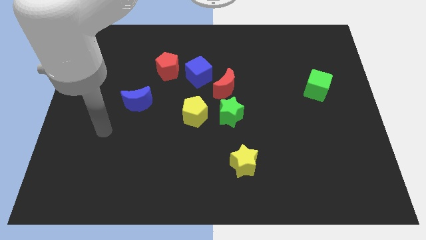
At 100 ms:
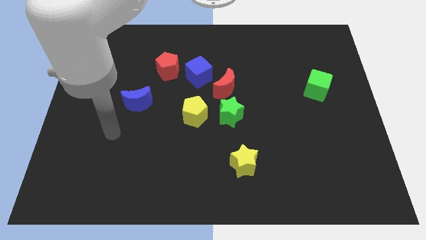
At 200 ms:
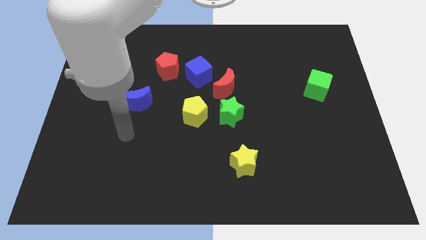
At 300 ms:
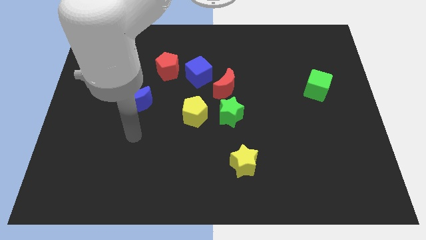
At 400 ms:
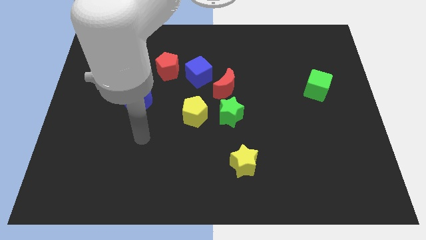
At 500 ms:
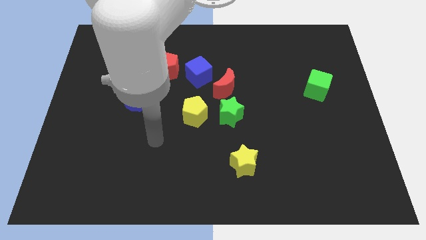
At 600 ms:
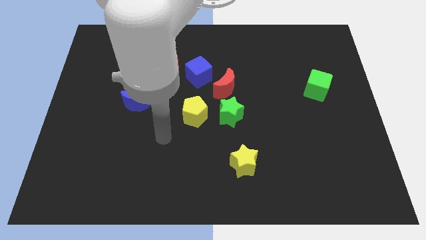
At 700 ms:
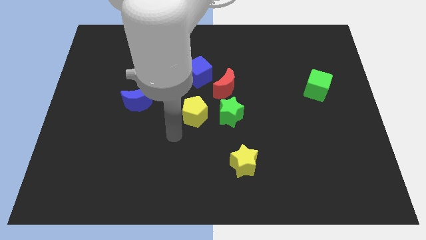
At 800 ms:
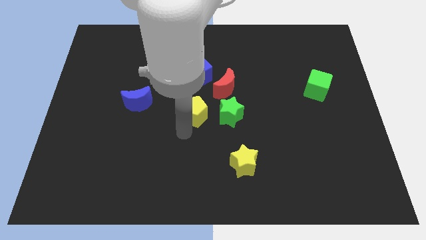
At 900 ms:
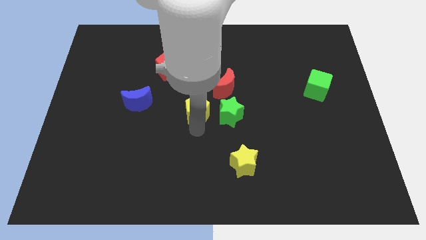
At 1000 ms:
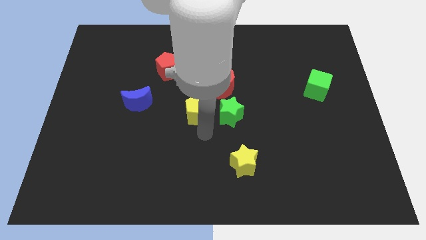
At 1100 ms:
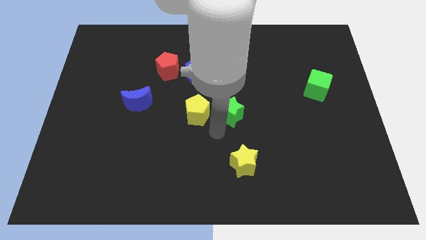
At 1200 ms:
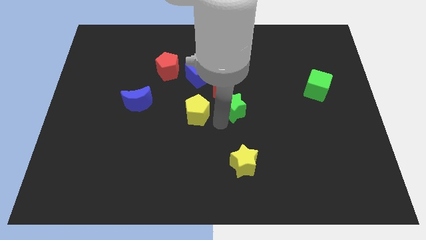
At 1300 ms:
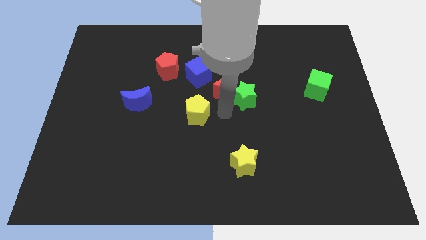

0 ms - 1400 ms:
move the yellow pentagon away from the green star

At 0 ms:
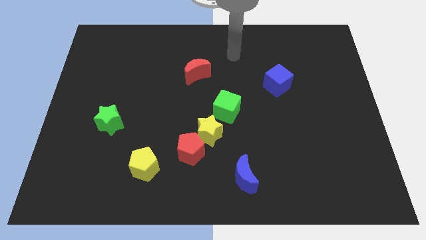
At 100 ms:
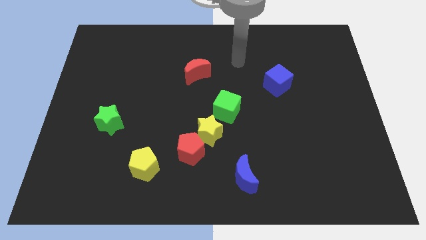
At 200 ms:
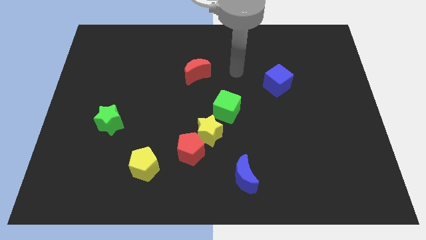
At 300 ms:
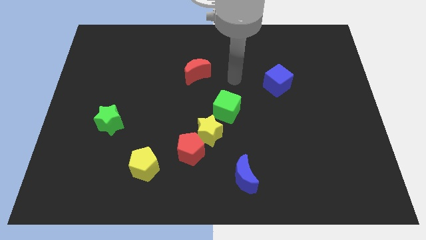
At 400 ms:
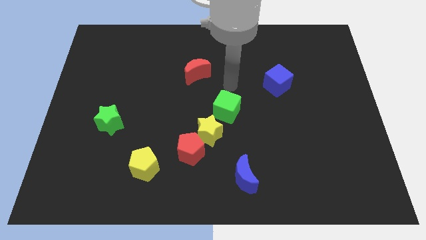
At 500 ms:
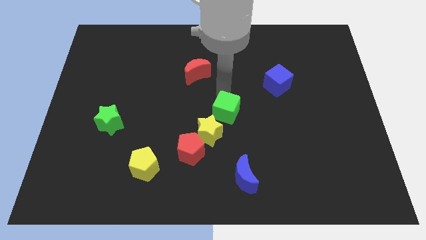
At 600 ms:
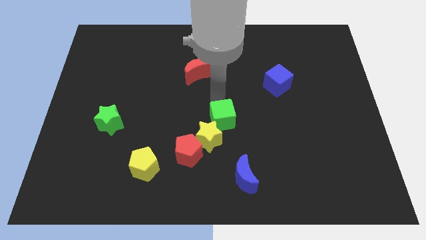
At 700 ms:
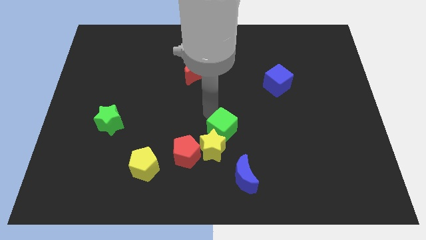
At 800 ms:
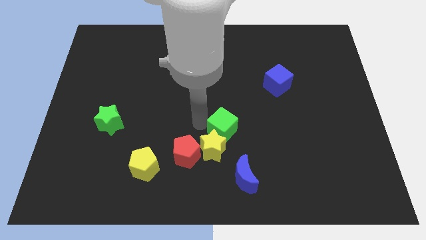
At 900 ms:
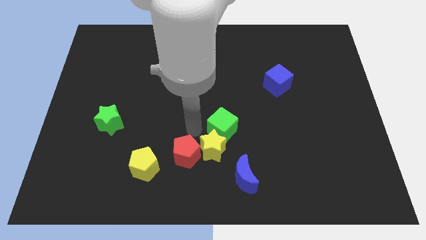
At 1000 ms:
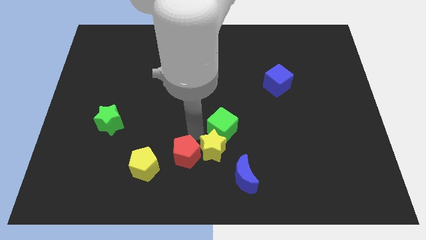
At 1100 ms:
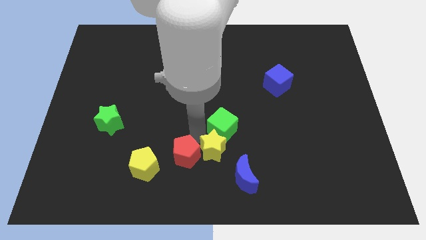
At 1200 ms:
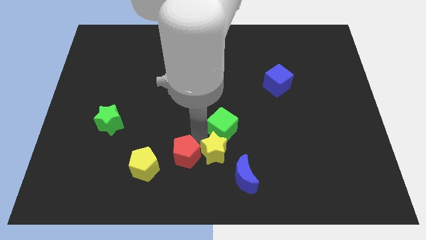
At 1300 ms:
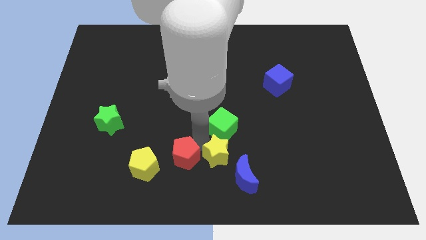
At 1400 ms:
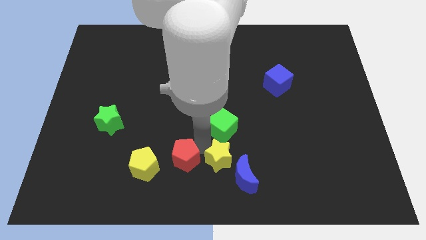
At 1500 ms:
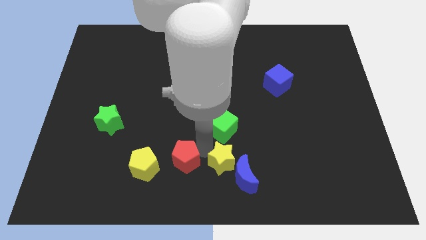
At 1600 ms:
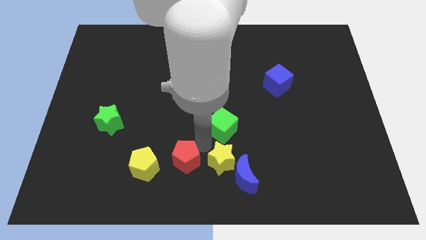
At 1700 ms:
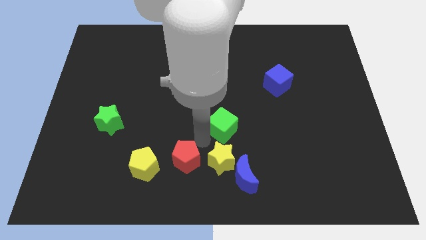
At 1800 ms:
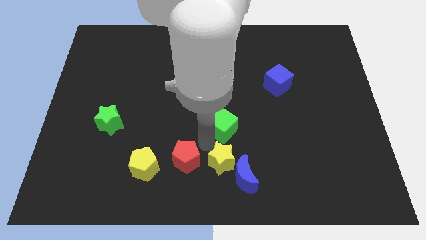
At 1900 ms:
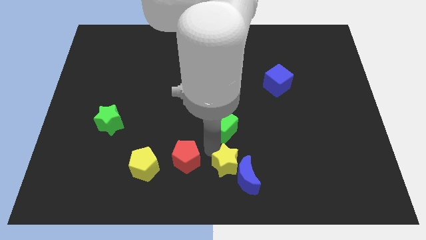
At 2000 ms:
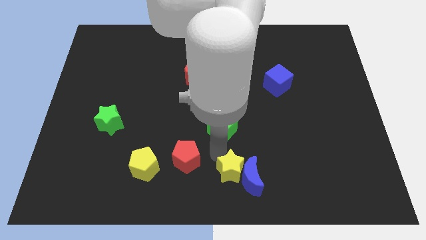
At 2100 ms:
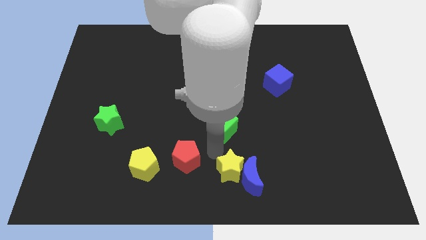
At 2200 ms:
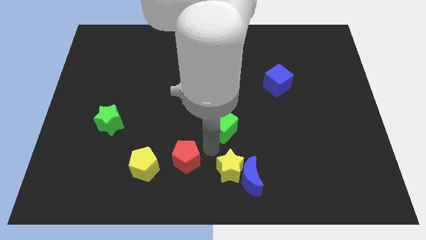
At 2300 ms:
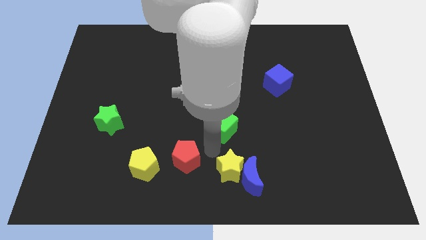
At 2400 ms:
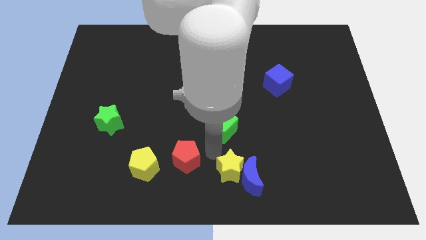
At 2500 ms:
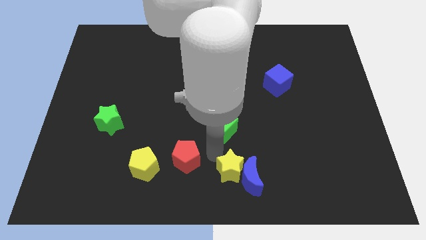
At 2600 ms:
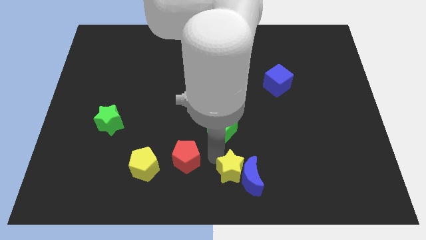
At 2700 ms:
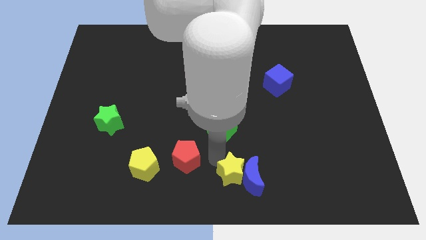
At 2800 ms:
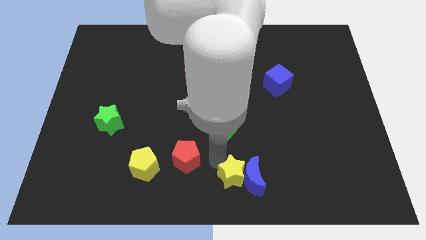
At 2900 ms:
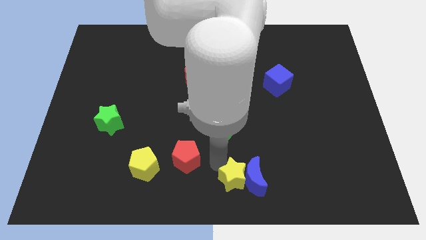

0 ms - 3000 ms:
move the yellow star away from the red pentagon and green cube

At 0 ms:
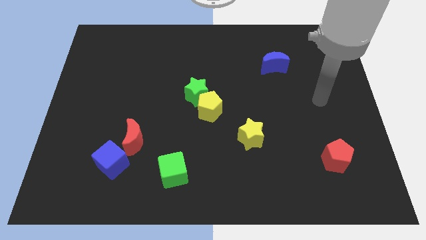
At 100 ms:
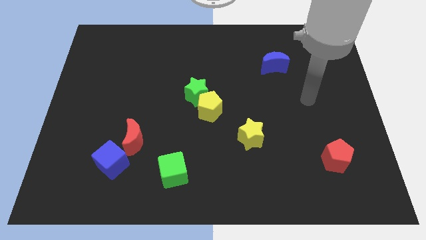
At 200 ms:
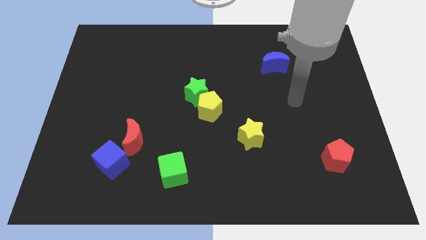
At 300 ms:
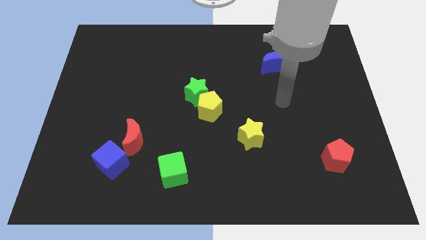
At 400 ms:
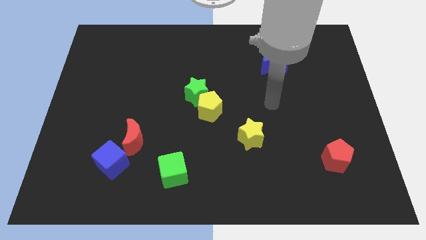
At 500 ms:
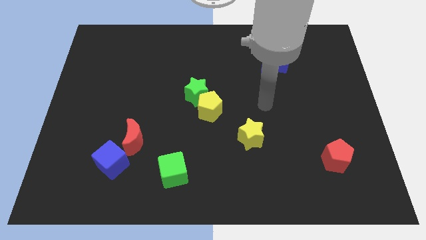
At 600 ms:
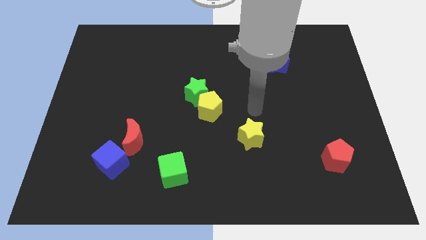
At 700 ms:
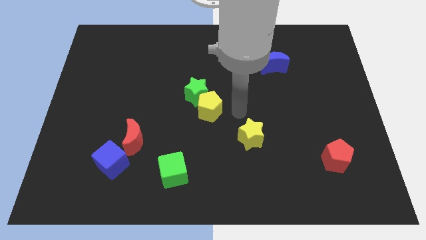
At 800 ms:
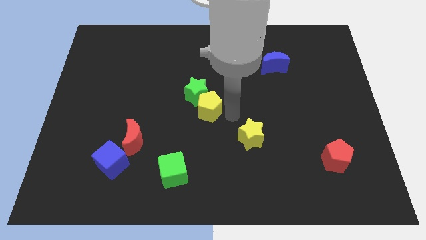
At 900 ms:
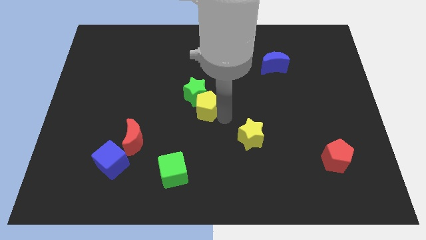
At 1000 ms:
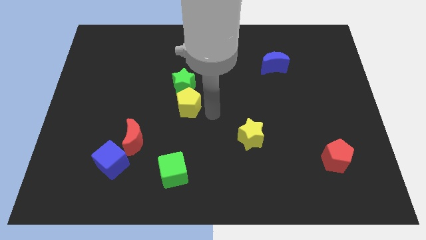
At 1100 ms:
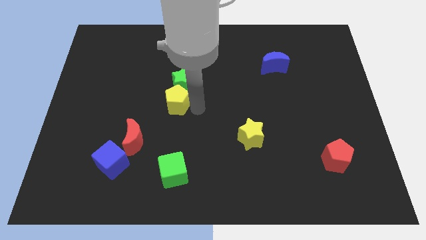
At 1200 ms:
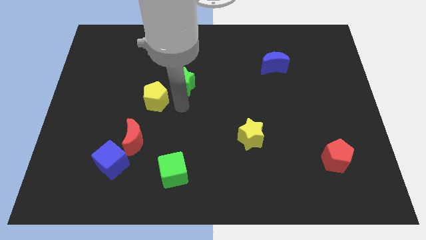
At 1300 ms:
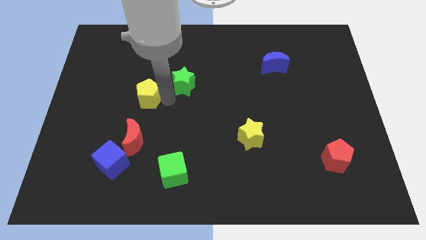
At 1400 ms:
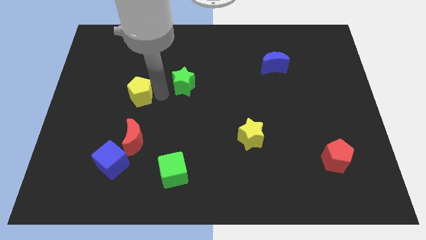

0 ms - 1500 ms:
move the green star away from the yellow pentagon

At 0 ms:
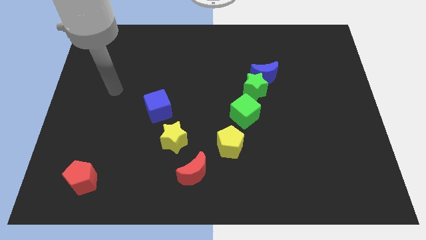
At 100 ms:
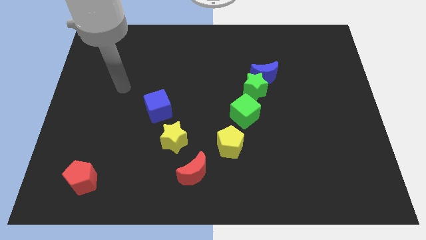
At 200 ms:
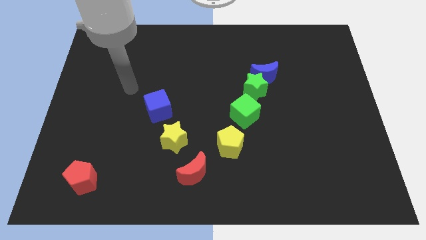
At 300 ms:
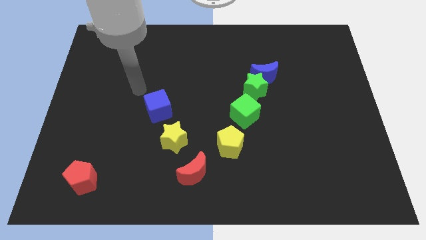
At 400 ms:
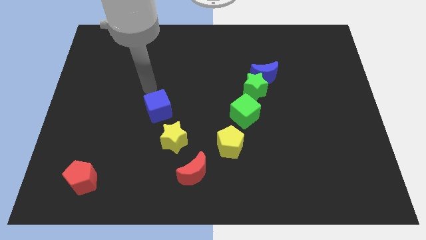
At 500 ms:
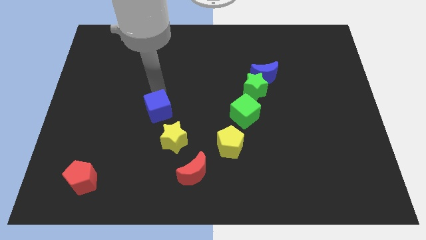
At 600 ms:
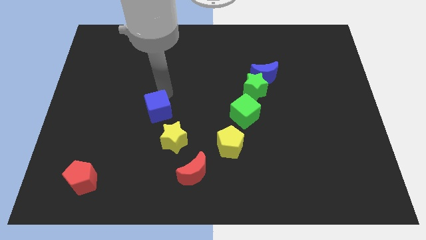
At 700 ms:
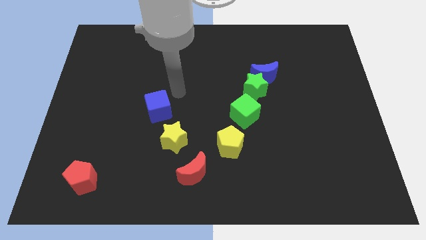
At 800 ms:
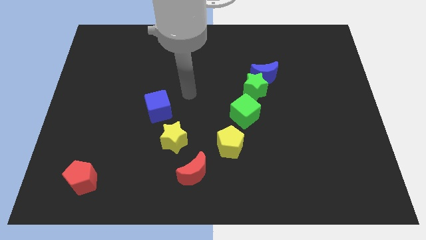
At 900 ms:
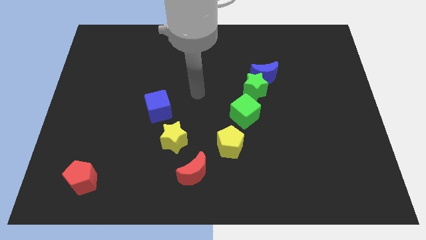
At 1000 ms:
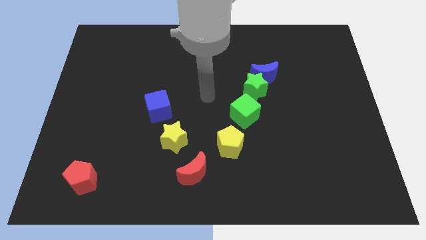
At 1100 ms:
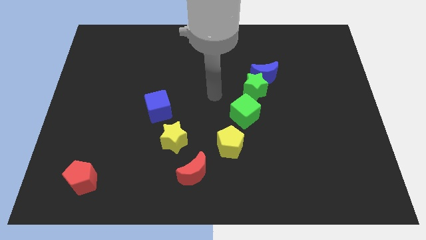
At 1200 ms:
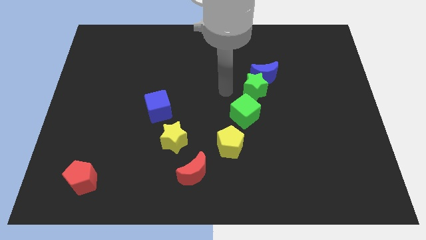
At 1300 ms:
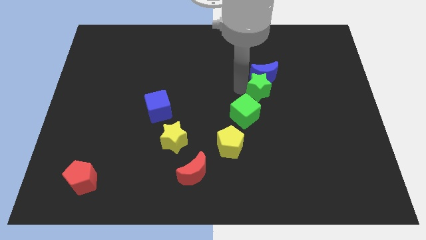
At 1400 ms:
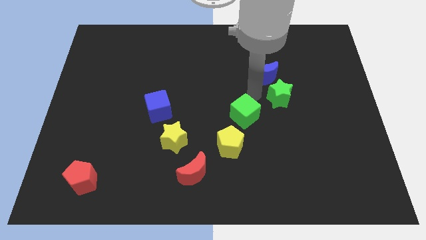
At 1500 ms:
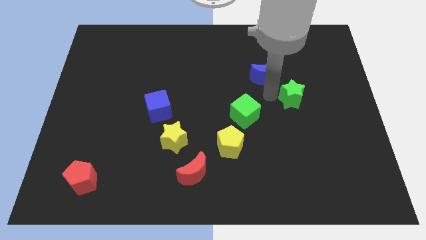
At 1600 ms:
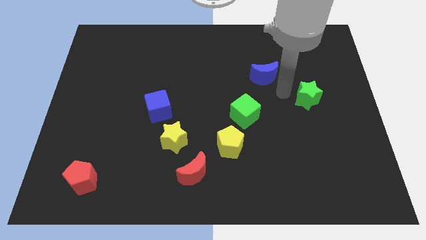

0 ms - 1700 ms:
move the blue moon away from the green star

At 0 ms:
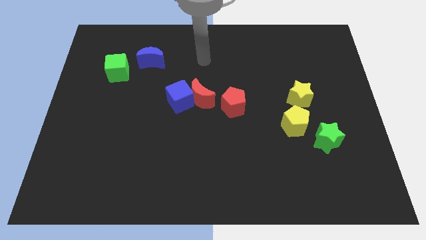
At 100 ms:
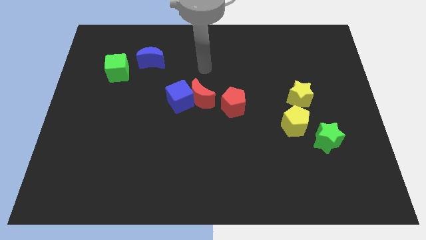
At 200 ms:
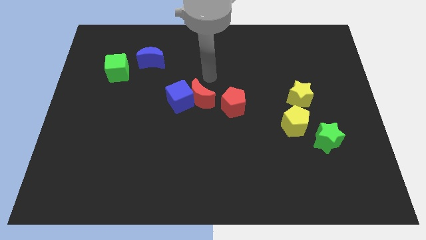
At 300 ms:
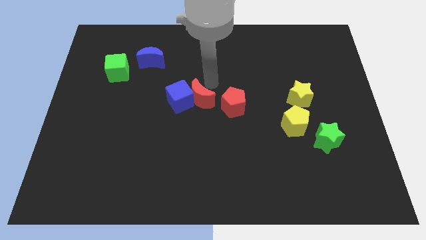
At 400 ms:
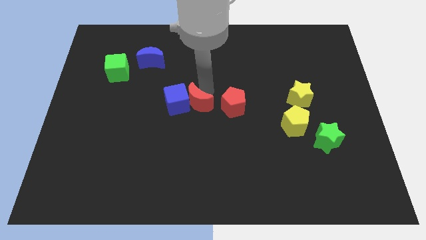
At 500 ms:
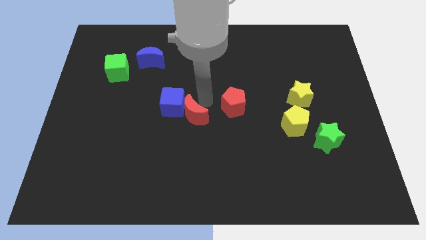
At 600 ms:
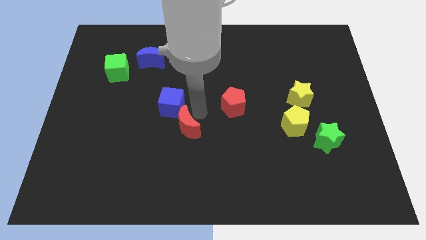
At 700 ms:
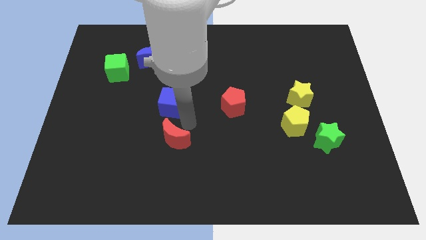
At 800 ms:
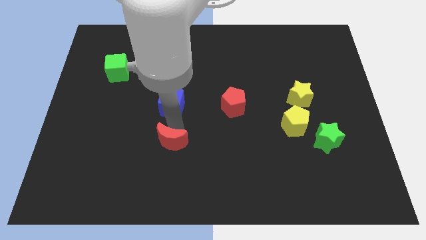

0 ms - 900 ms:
move the blue cube away from the red moon

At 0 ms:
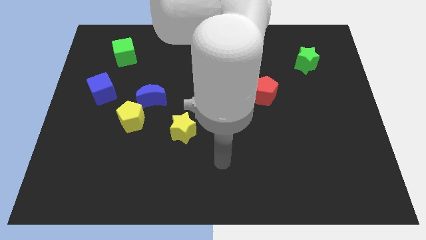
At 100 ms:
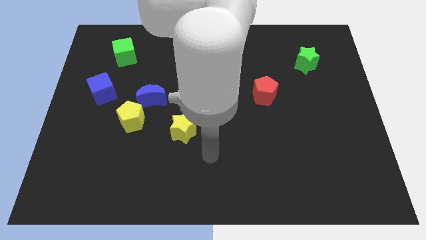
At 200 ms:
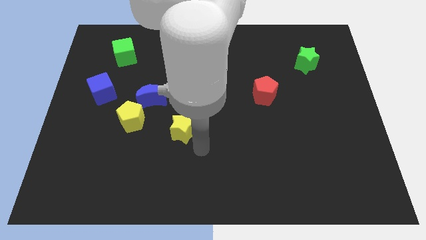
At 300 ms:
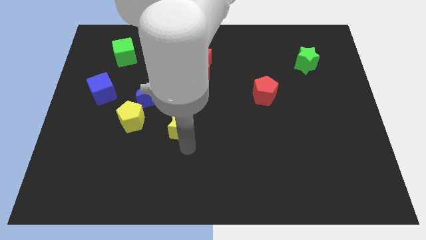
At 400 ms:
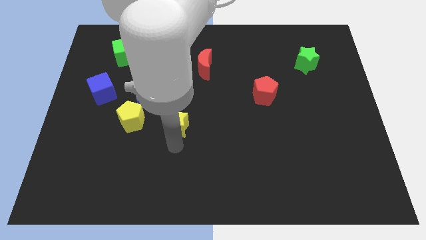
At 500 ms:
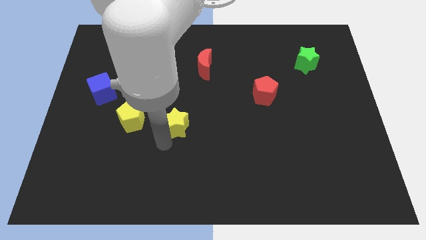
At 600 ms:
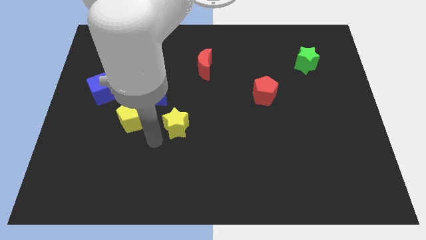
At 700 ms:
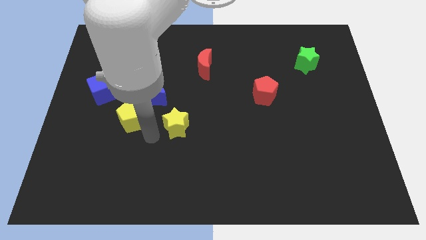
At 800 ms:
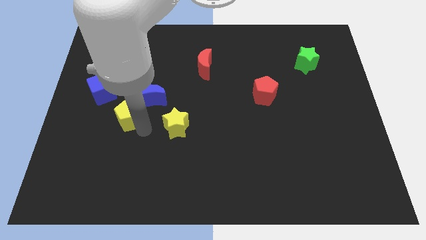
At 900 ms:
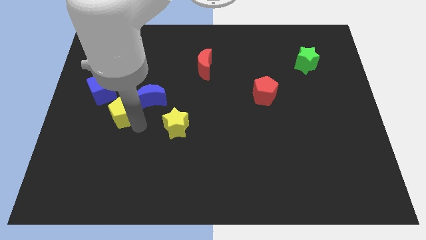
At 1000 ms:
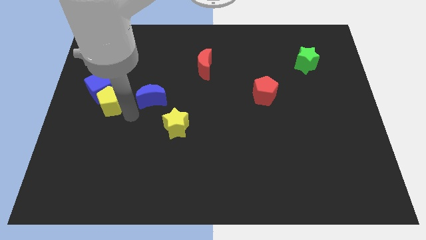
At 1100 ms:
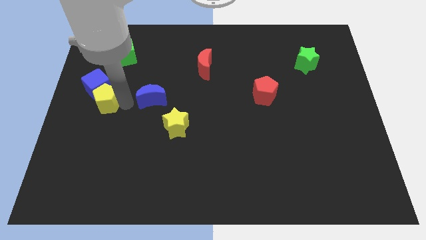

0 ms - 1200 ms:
move the blue moon away from the yellow pentagon
